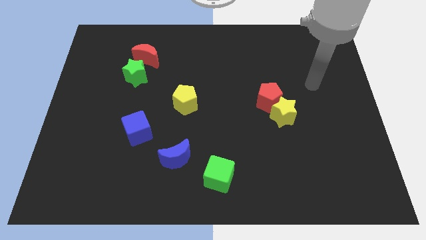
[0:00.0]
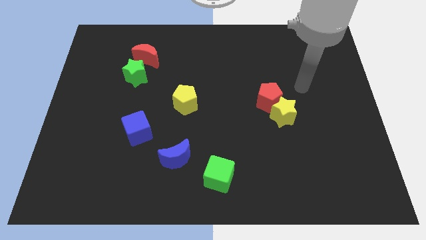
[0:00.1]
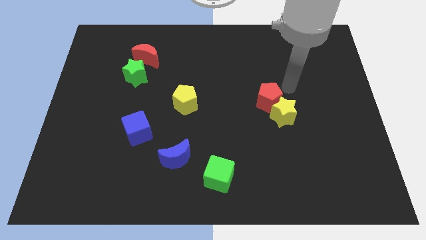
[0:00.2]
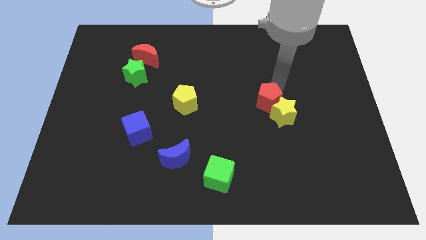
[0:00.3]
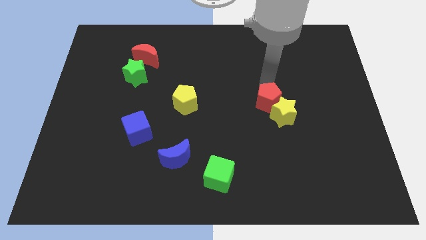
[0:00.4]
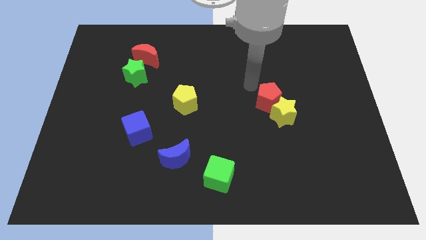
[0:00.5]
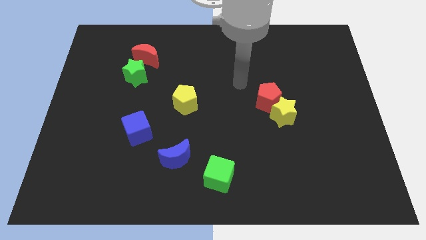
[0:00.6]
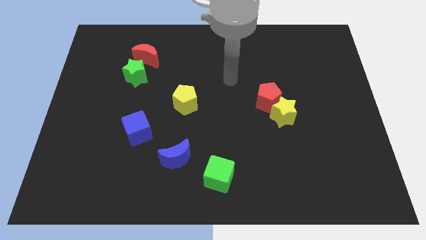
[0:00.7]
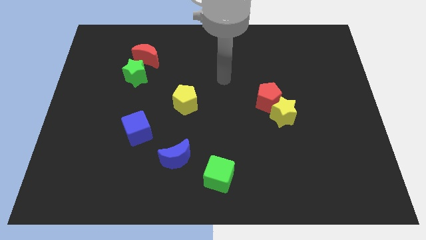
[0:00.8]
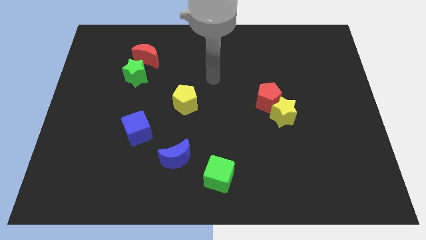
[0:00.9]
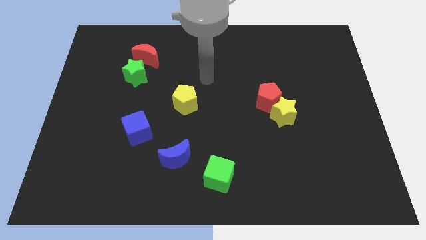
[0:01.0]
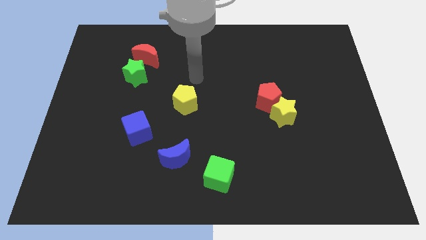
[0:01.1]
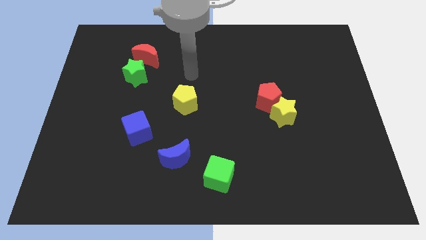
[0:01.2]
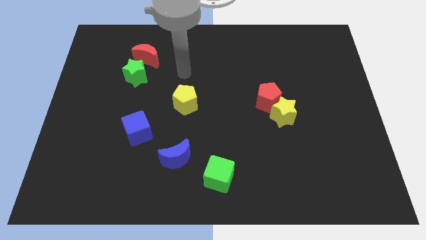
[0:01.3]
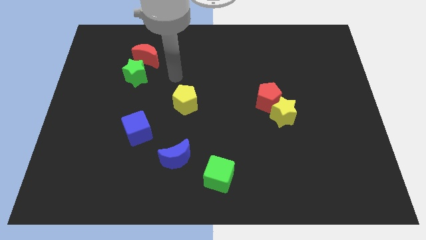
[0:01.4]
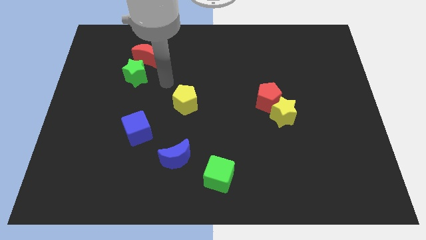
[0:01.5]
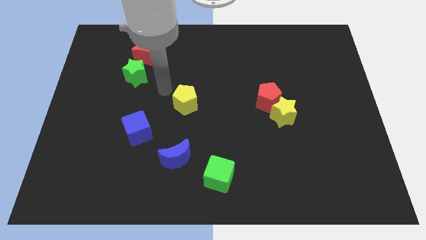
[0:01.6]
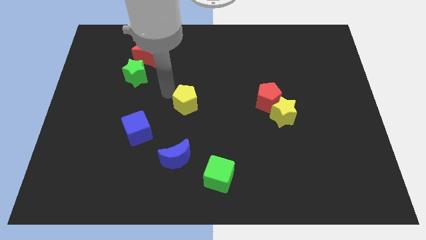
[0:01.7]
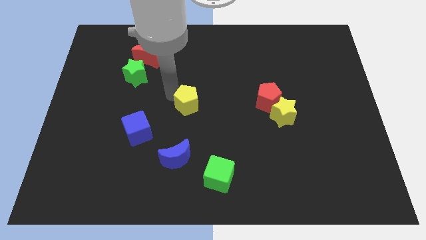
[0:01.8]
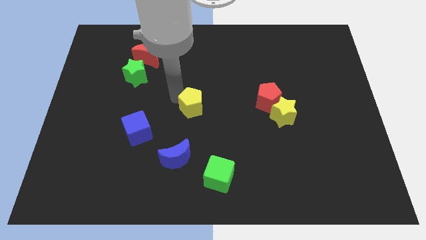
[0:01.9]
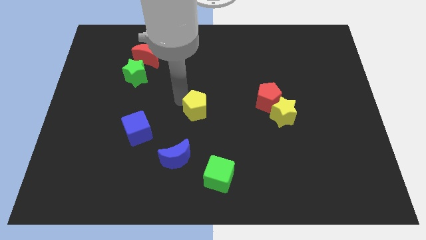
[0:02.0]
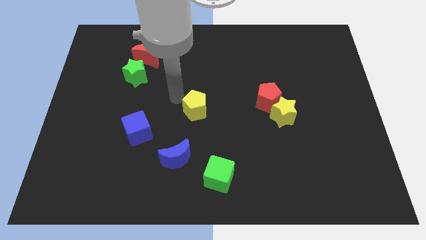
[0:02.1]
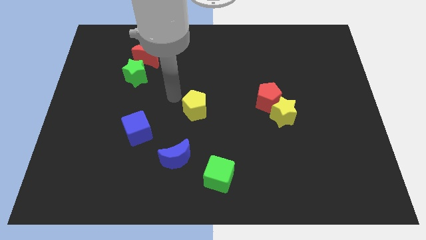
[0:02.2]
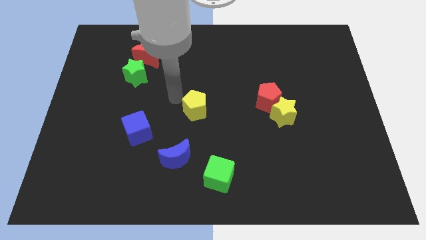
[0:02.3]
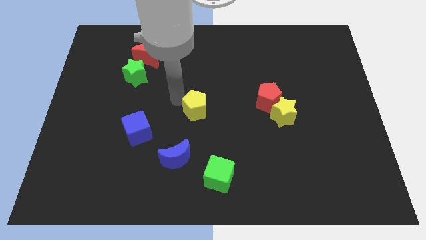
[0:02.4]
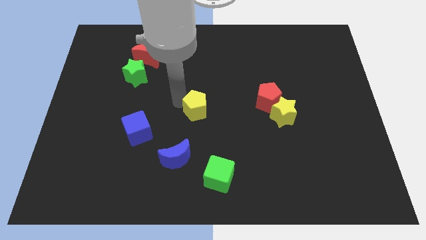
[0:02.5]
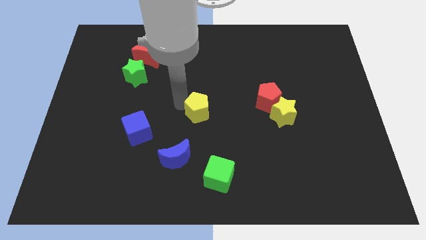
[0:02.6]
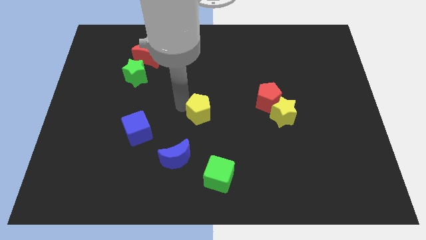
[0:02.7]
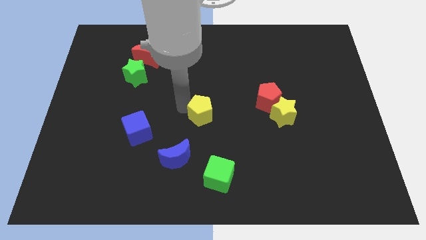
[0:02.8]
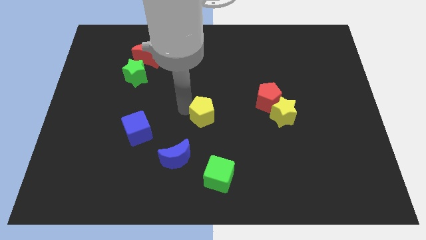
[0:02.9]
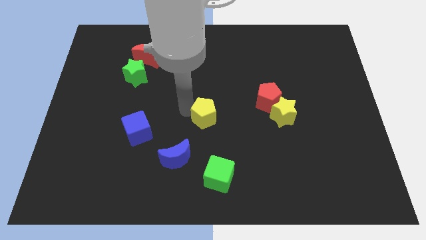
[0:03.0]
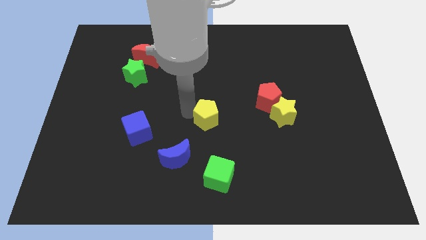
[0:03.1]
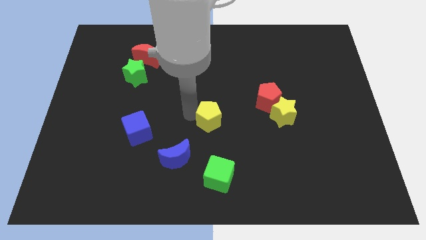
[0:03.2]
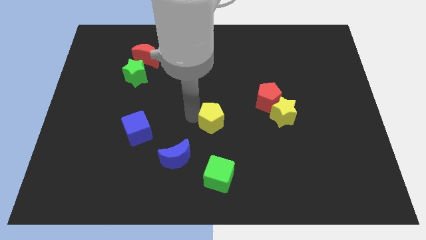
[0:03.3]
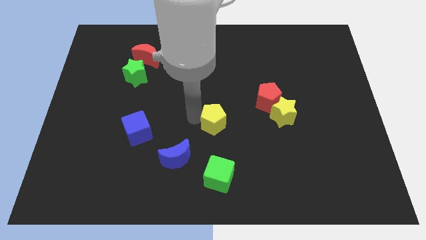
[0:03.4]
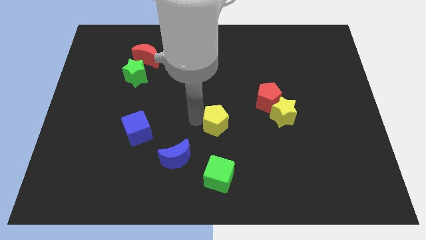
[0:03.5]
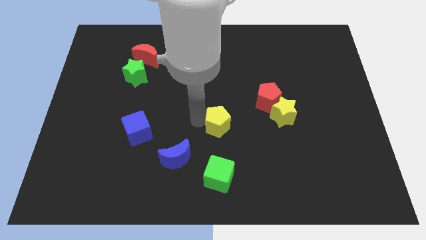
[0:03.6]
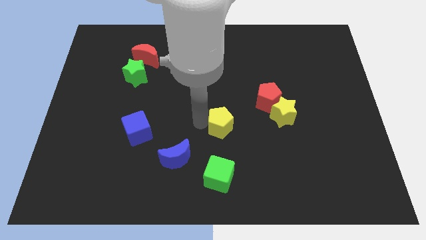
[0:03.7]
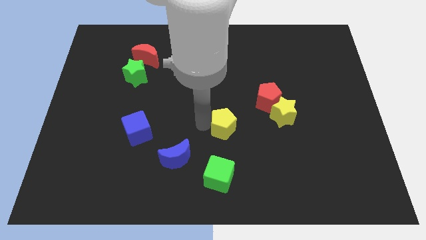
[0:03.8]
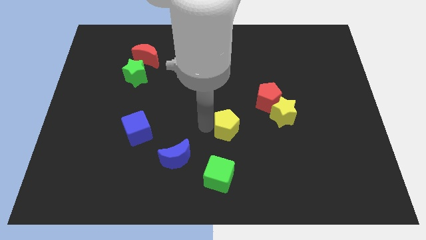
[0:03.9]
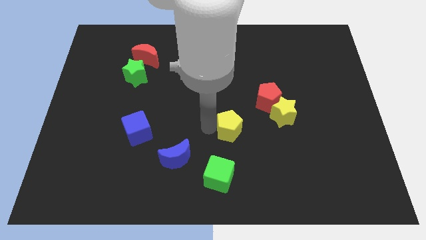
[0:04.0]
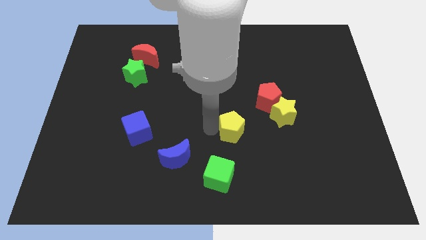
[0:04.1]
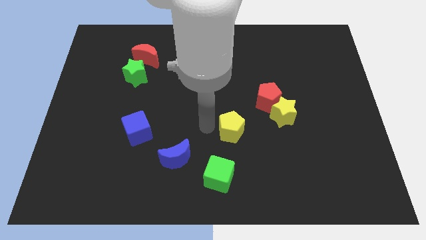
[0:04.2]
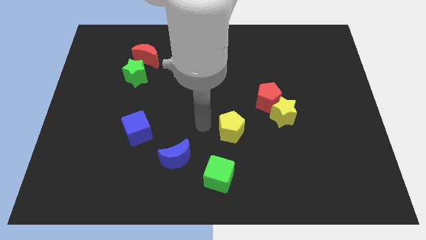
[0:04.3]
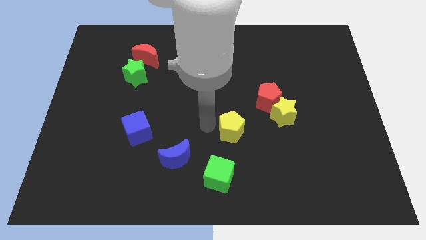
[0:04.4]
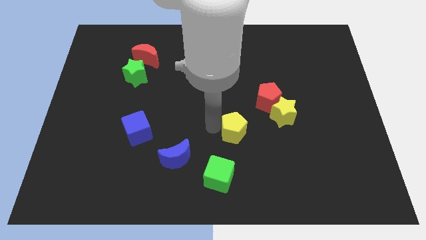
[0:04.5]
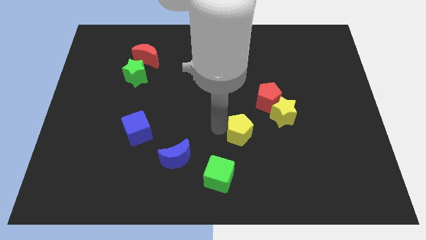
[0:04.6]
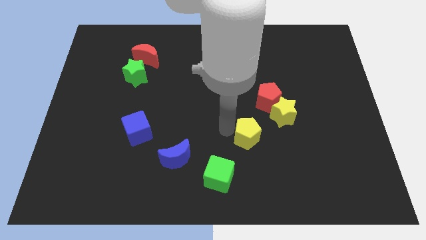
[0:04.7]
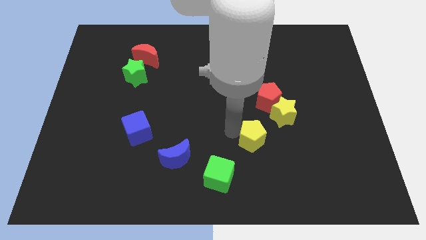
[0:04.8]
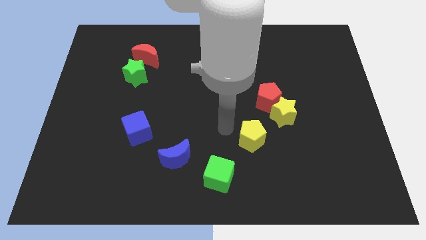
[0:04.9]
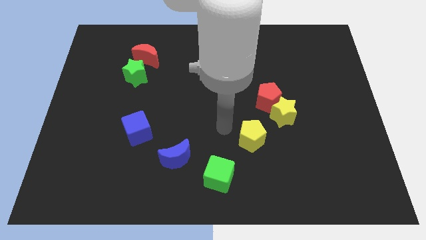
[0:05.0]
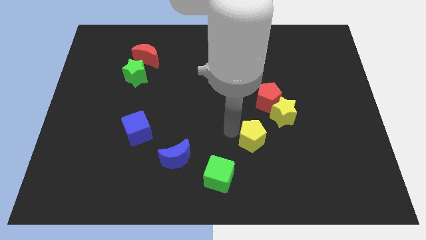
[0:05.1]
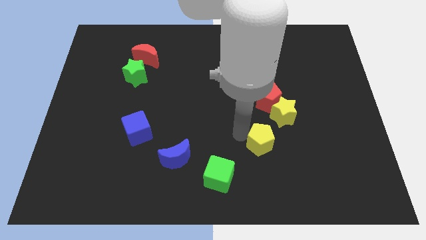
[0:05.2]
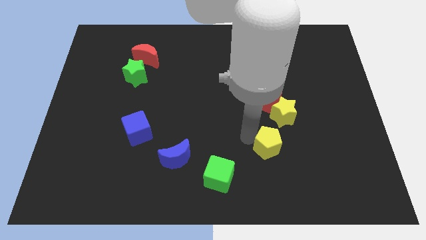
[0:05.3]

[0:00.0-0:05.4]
slide the yellow pentagon to the bottom side of the yellow star

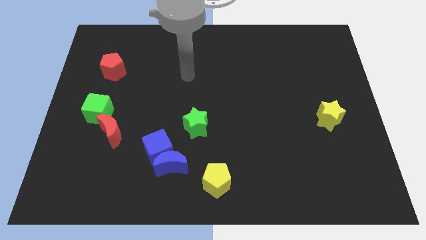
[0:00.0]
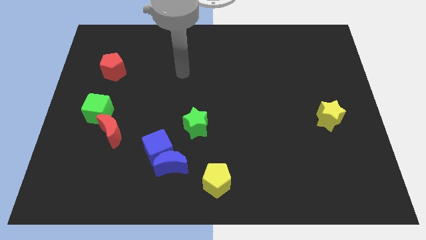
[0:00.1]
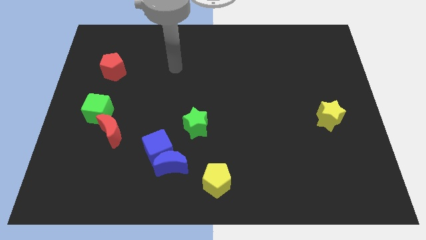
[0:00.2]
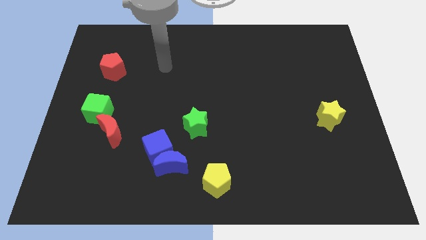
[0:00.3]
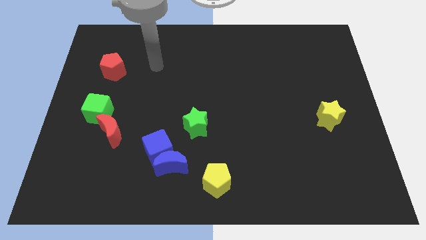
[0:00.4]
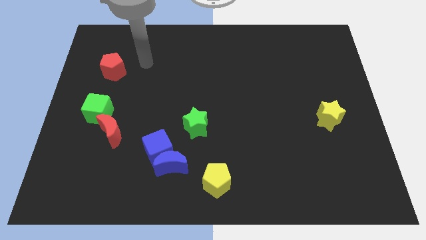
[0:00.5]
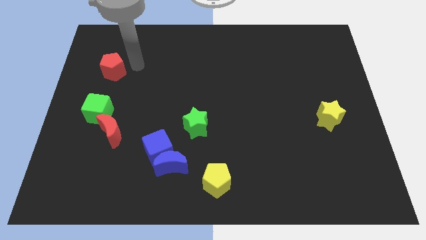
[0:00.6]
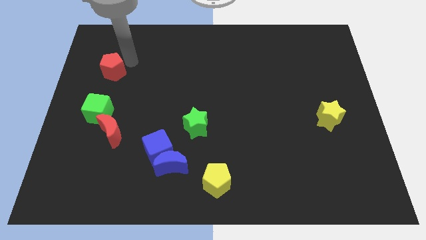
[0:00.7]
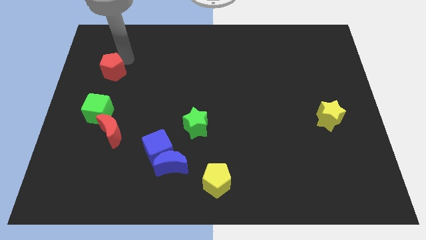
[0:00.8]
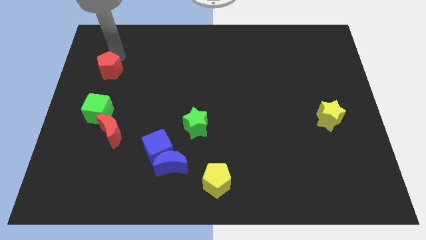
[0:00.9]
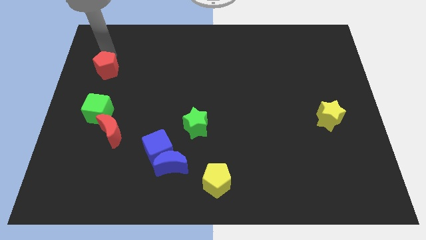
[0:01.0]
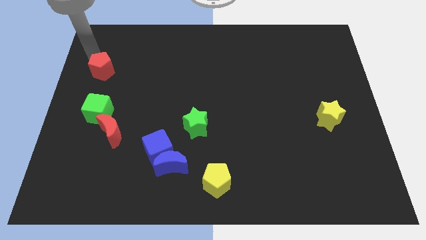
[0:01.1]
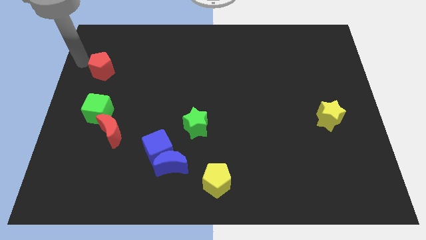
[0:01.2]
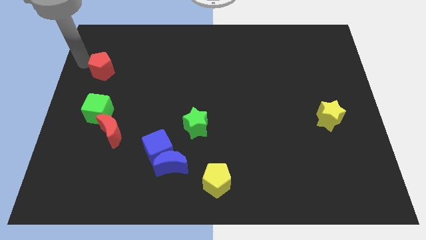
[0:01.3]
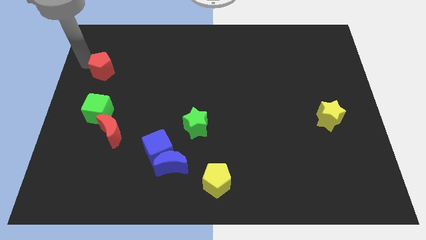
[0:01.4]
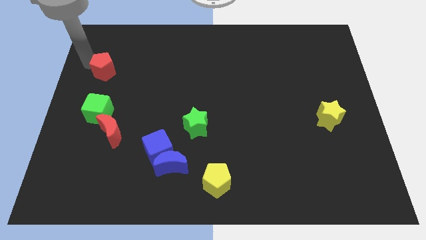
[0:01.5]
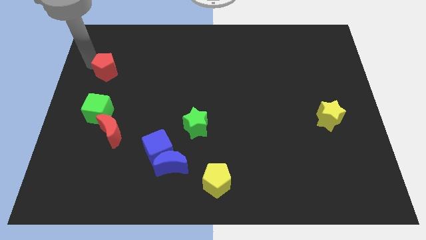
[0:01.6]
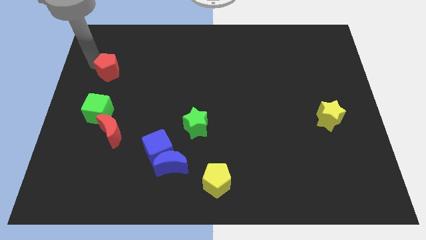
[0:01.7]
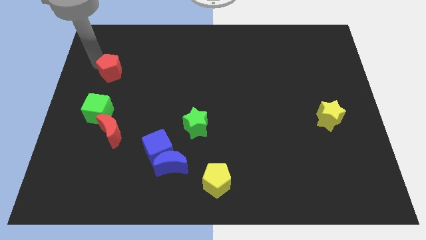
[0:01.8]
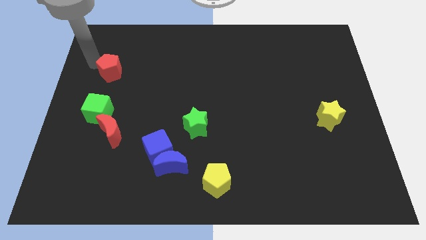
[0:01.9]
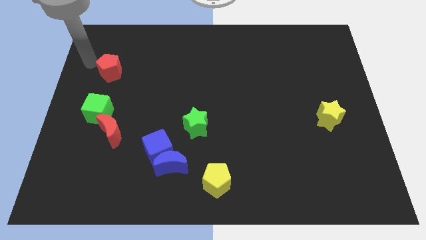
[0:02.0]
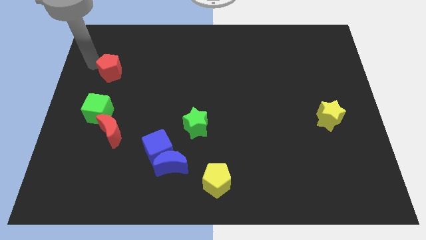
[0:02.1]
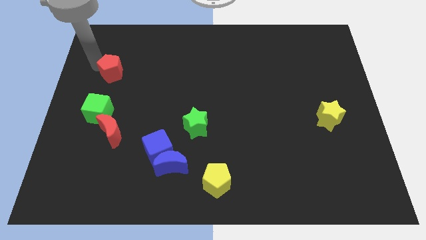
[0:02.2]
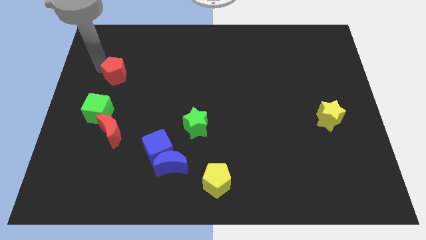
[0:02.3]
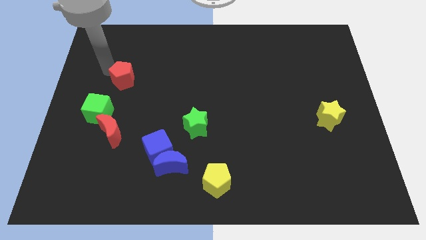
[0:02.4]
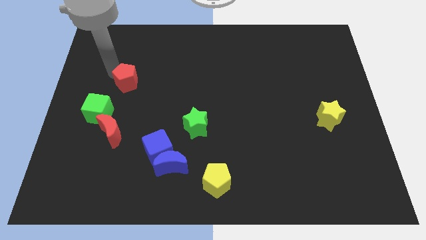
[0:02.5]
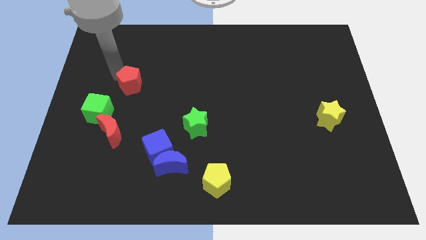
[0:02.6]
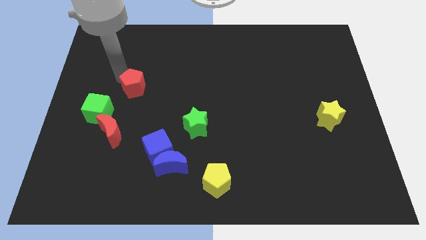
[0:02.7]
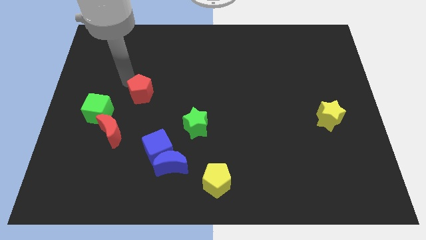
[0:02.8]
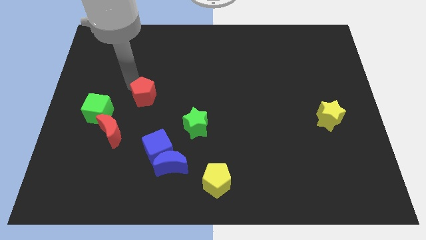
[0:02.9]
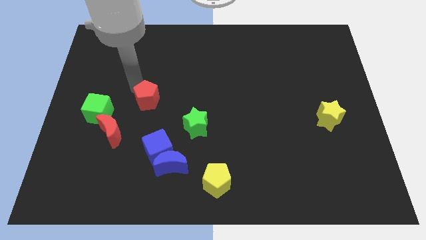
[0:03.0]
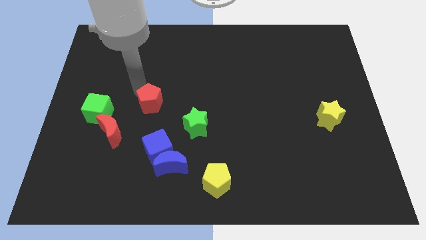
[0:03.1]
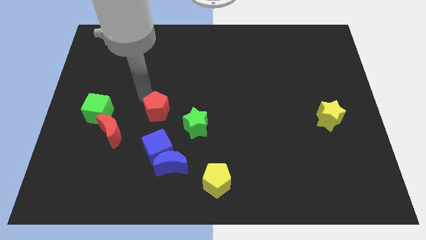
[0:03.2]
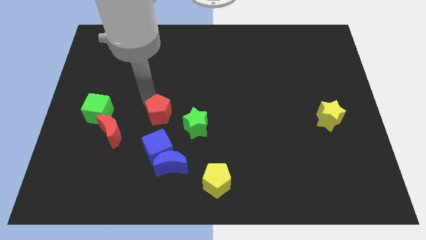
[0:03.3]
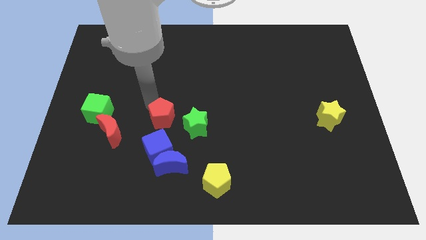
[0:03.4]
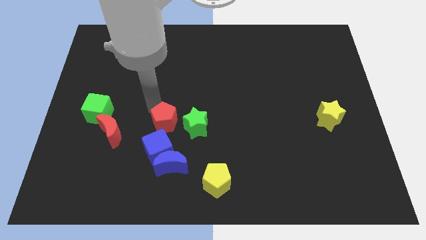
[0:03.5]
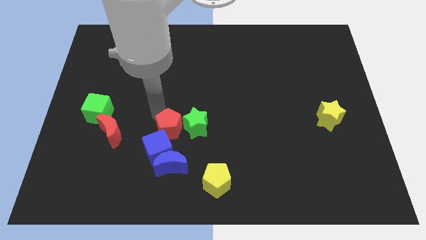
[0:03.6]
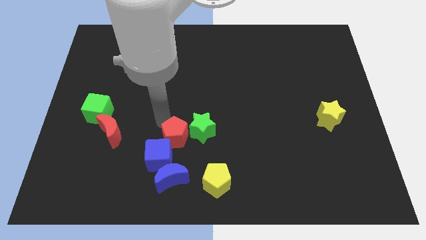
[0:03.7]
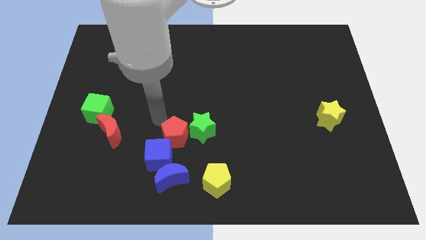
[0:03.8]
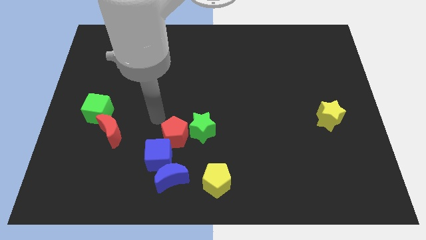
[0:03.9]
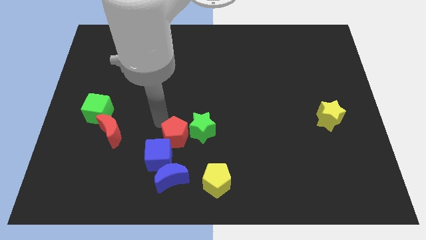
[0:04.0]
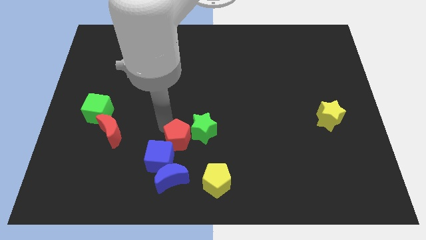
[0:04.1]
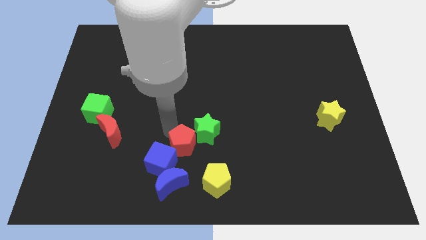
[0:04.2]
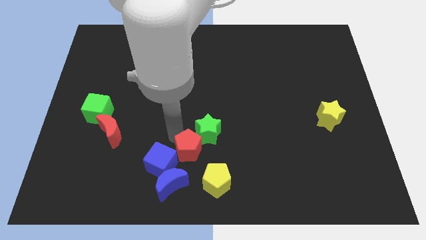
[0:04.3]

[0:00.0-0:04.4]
move the red pentagon to the top right of the blue moon
